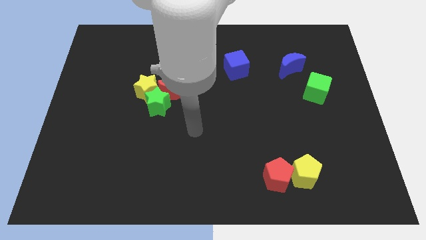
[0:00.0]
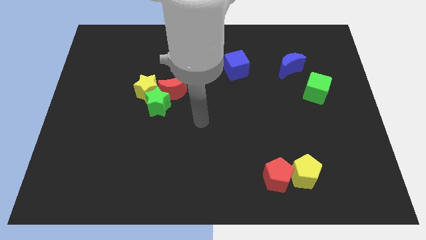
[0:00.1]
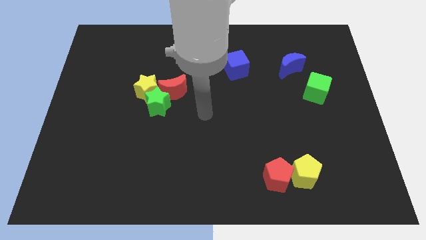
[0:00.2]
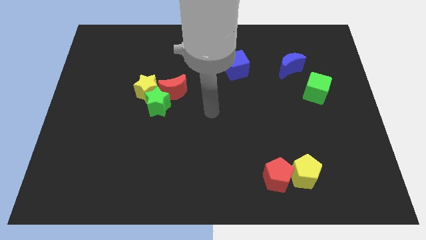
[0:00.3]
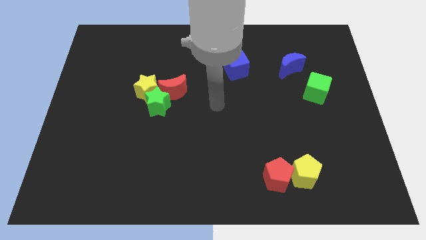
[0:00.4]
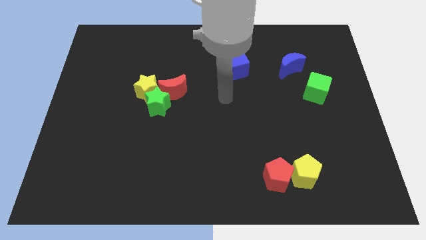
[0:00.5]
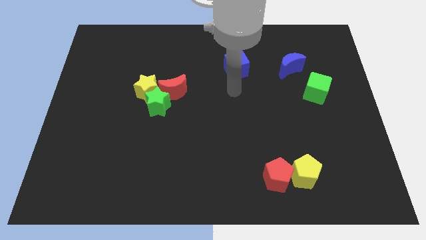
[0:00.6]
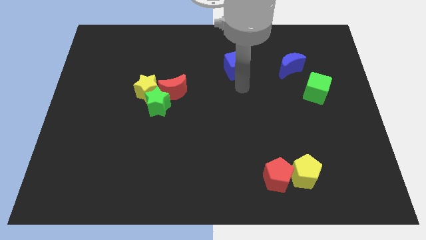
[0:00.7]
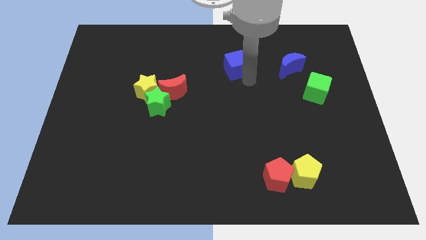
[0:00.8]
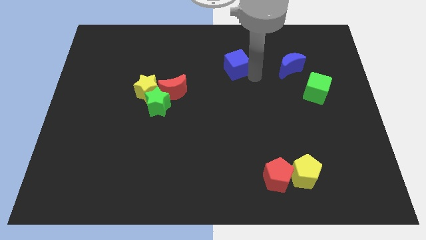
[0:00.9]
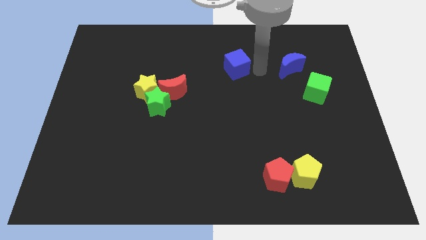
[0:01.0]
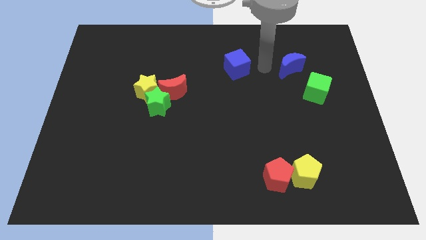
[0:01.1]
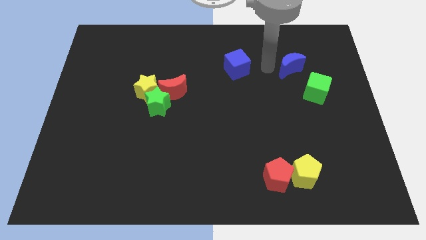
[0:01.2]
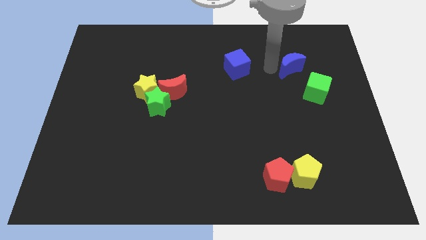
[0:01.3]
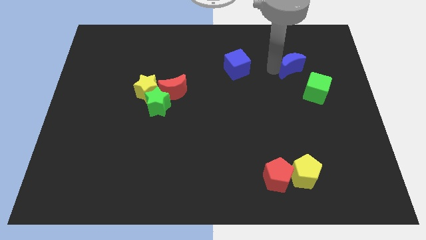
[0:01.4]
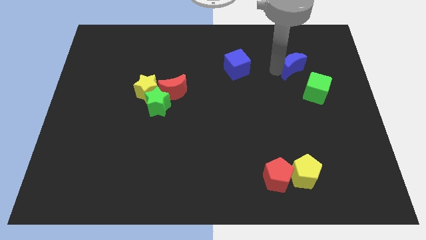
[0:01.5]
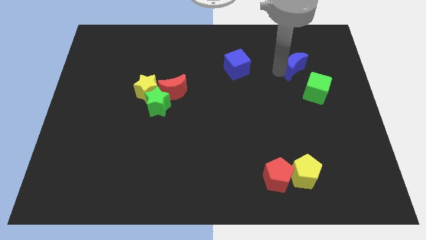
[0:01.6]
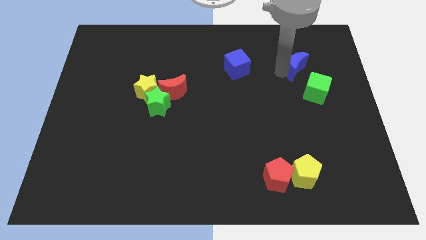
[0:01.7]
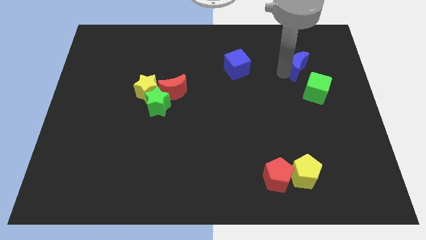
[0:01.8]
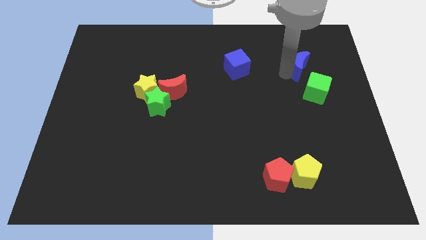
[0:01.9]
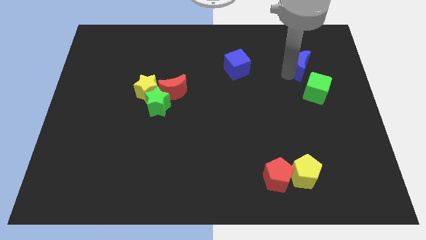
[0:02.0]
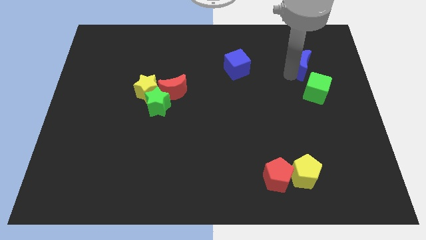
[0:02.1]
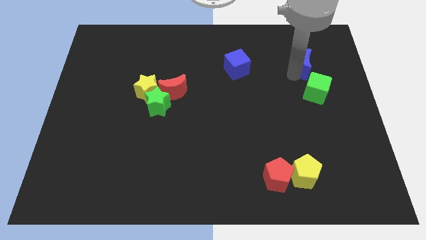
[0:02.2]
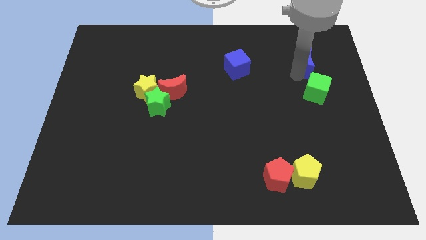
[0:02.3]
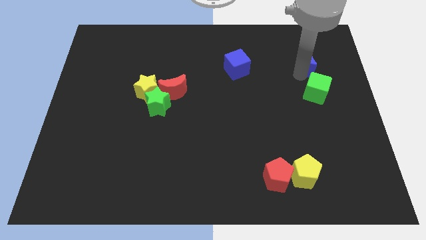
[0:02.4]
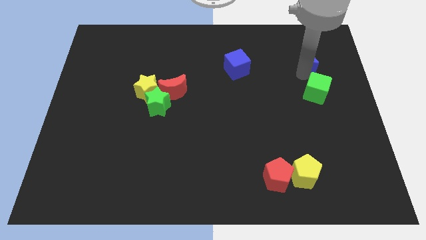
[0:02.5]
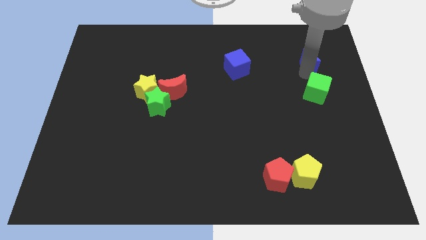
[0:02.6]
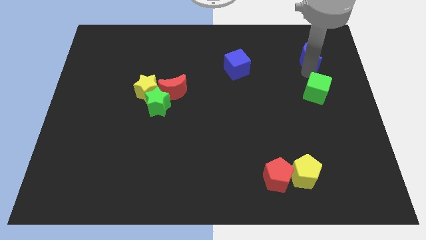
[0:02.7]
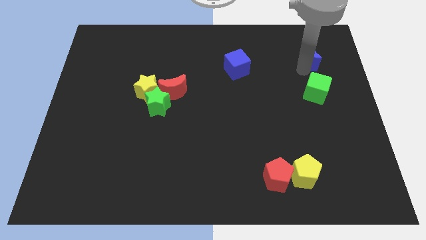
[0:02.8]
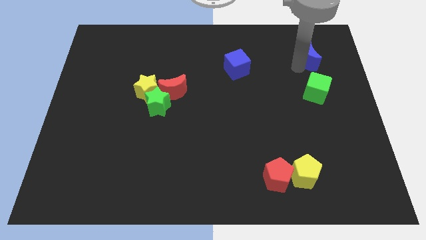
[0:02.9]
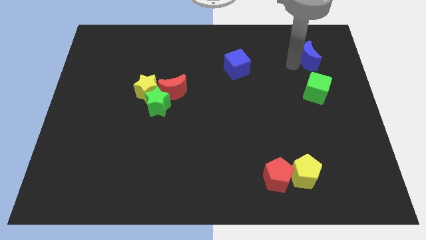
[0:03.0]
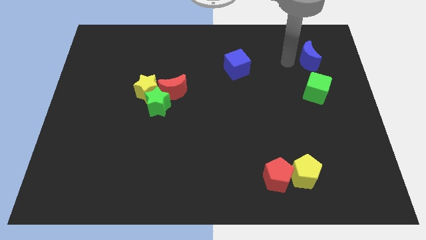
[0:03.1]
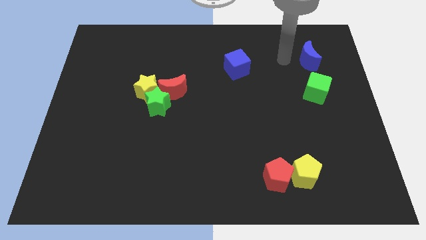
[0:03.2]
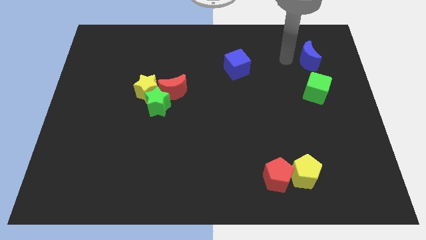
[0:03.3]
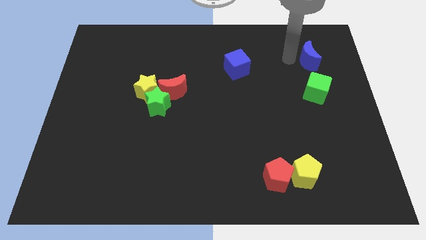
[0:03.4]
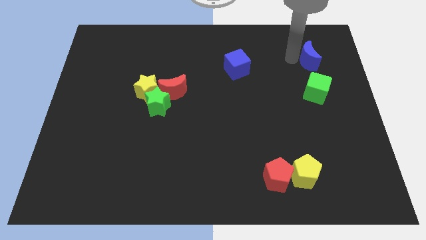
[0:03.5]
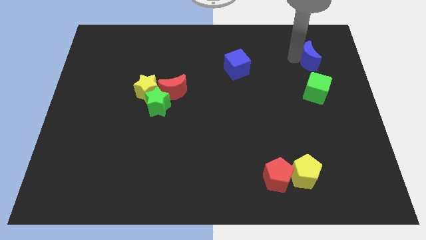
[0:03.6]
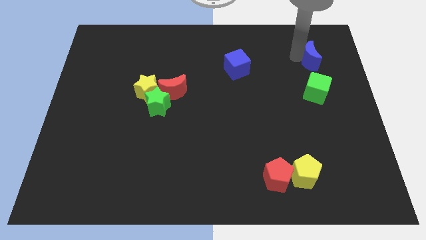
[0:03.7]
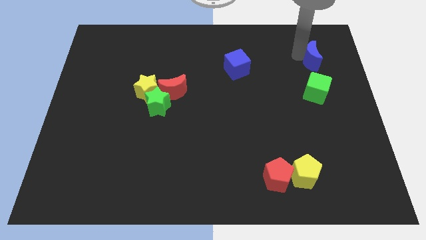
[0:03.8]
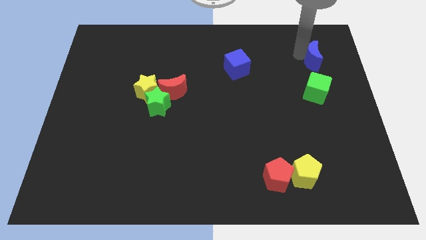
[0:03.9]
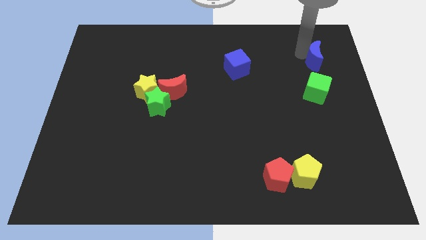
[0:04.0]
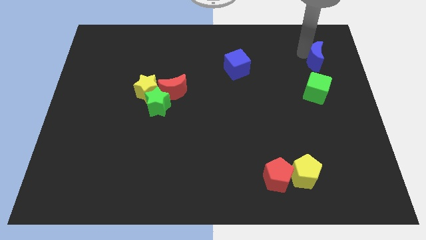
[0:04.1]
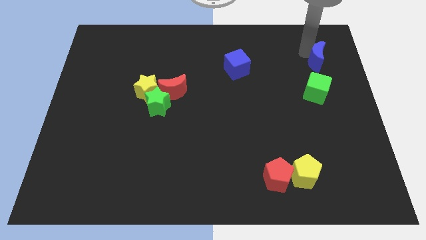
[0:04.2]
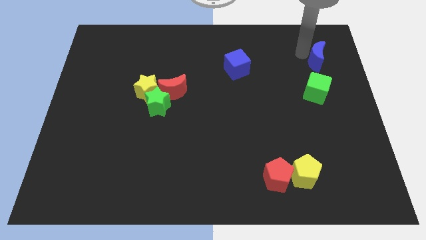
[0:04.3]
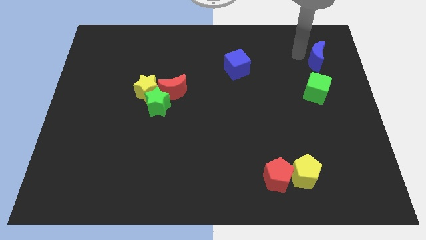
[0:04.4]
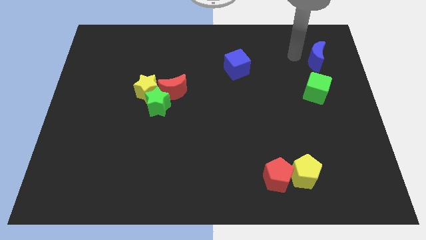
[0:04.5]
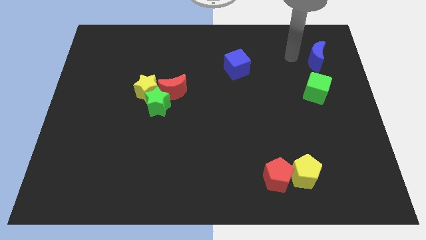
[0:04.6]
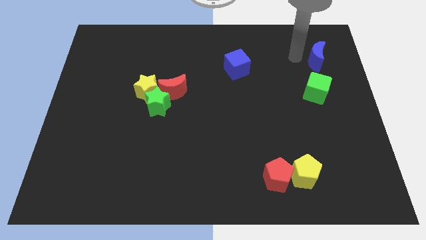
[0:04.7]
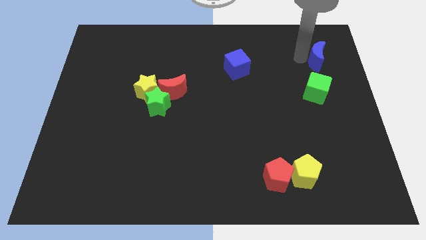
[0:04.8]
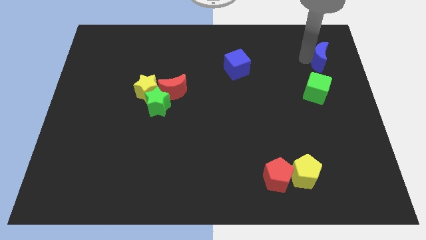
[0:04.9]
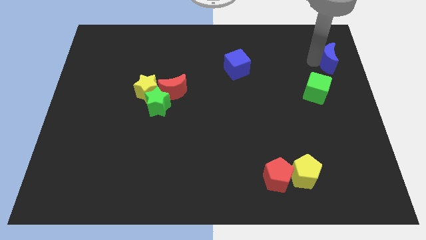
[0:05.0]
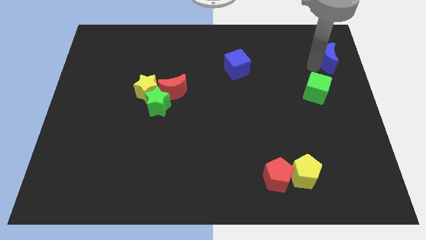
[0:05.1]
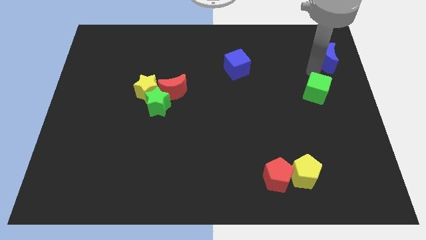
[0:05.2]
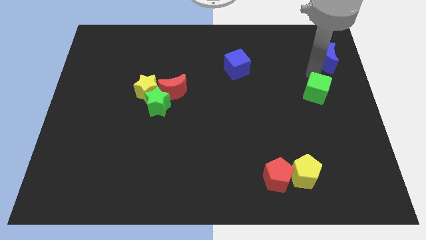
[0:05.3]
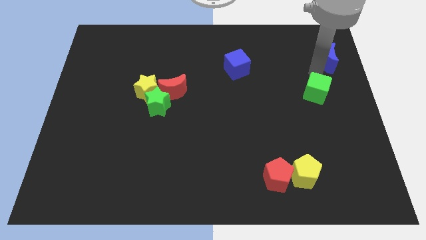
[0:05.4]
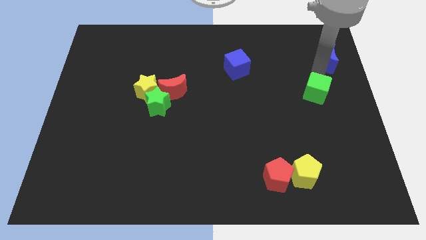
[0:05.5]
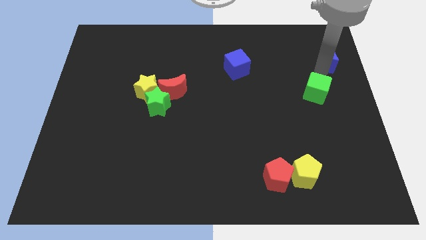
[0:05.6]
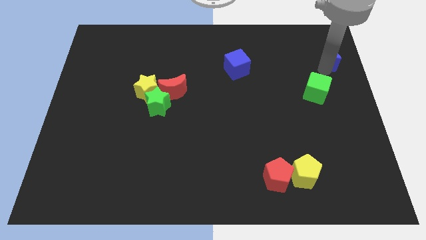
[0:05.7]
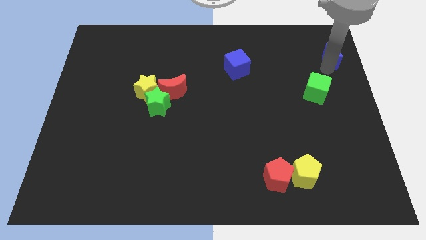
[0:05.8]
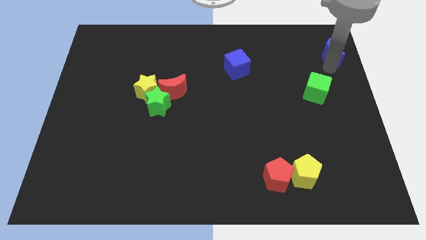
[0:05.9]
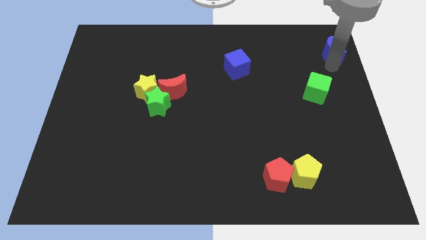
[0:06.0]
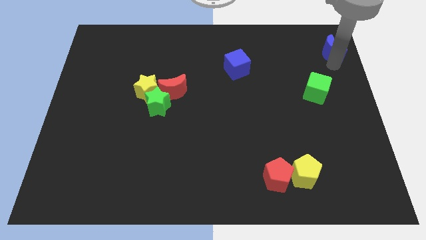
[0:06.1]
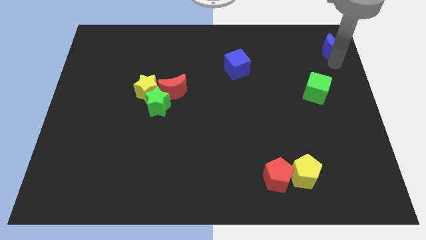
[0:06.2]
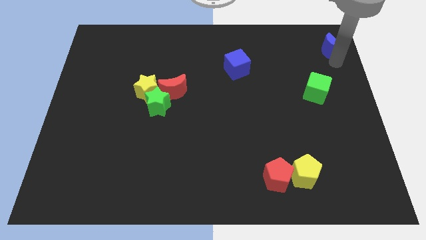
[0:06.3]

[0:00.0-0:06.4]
put the blue moon to the top right of the board
